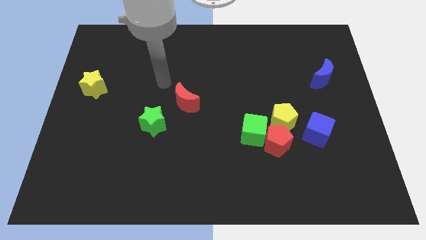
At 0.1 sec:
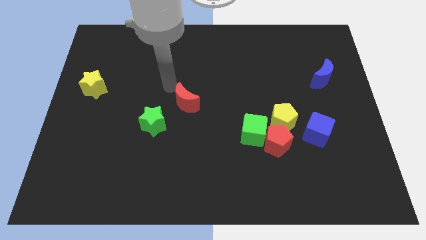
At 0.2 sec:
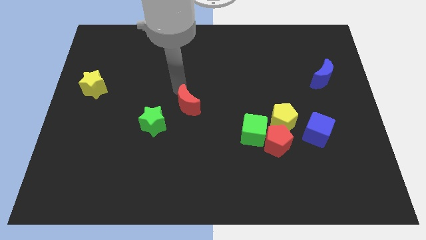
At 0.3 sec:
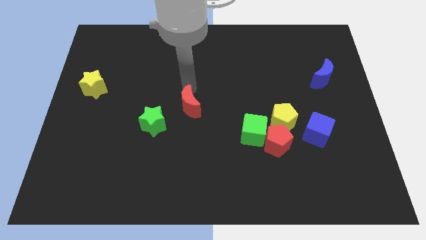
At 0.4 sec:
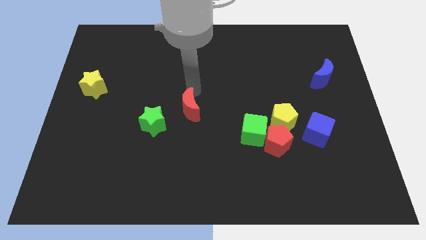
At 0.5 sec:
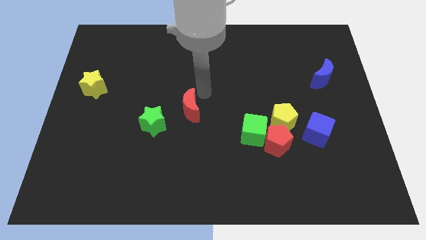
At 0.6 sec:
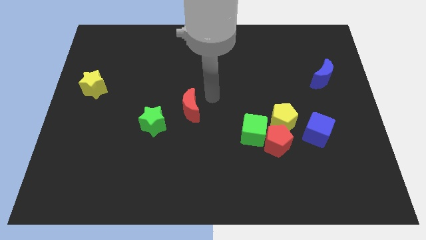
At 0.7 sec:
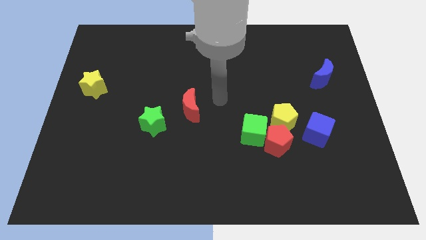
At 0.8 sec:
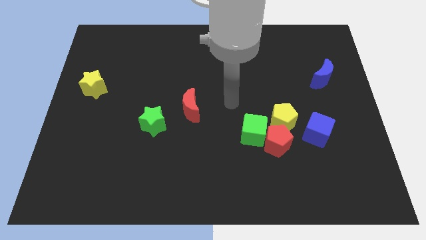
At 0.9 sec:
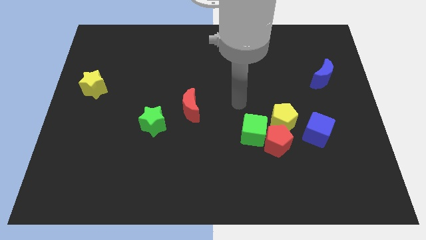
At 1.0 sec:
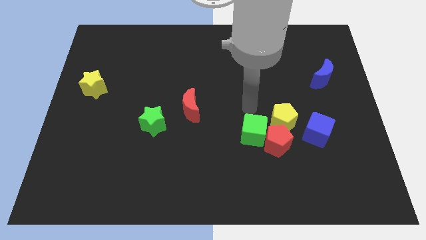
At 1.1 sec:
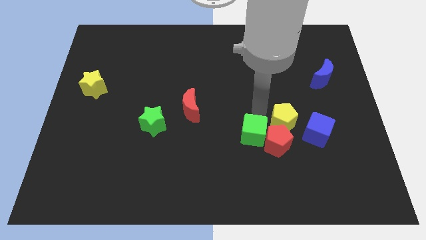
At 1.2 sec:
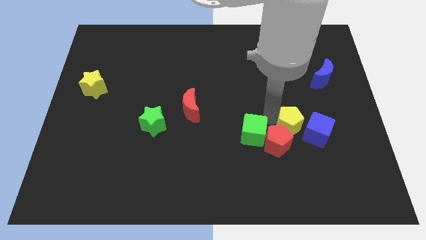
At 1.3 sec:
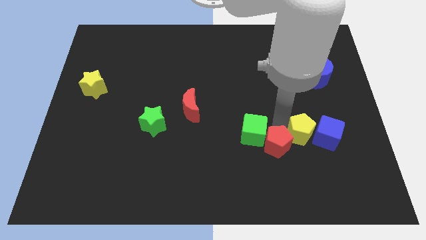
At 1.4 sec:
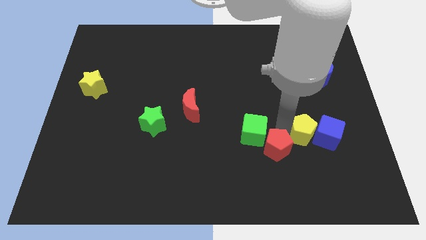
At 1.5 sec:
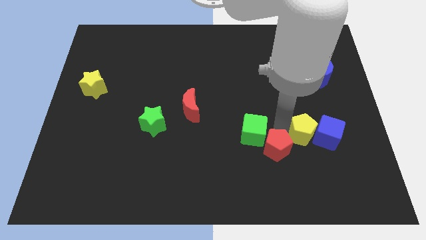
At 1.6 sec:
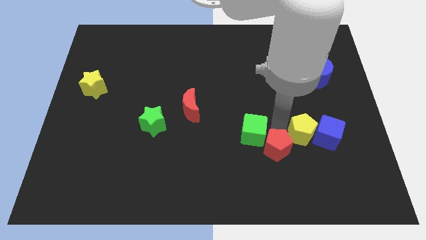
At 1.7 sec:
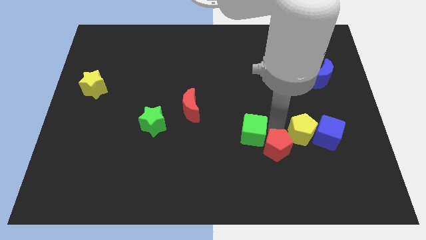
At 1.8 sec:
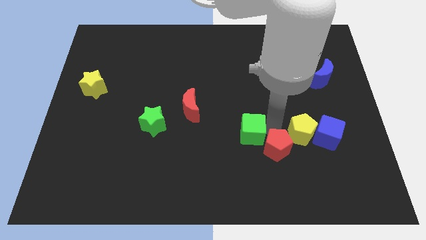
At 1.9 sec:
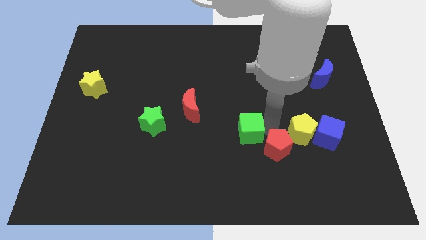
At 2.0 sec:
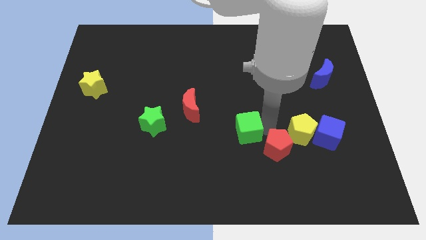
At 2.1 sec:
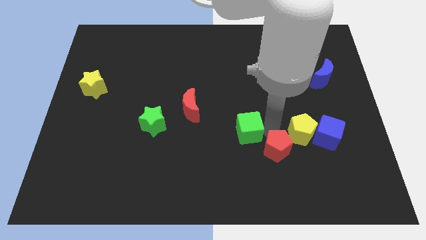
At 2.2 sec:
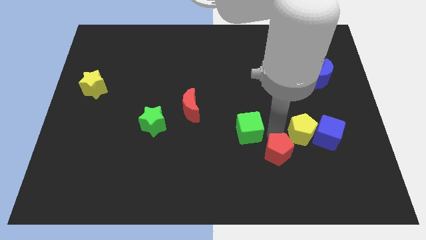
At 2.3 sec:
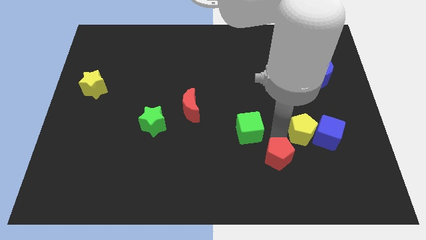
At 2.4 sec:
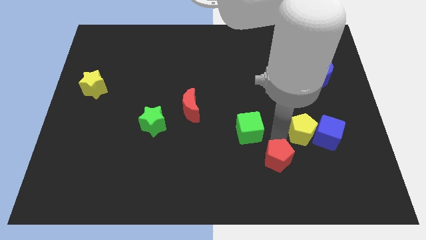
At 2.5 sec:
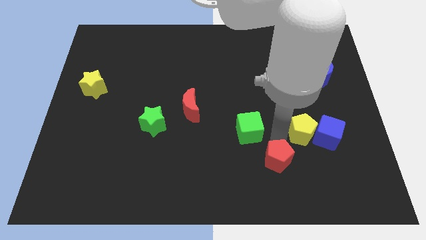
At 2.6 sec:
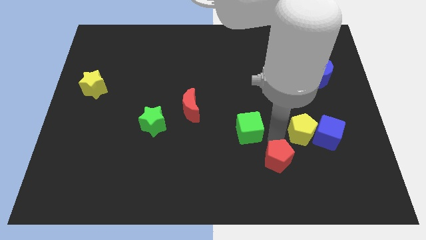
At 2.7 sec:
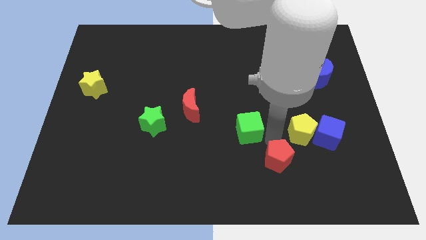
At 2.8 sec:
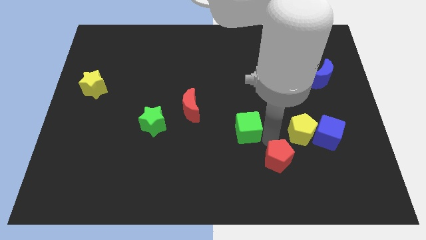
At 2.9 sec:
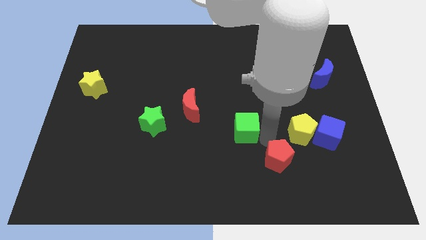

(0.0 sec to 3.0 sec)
pull the green cube apart from the red pentagon and yellow pentagon

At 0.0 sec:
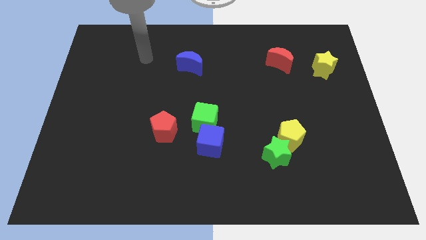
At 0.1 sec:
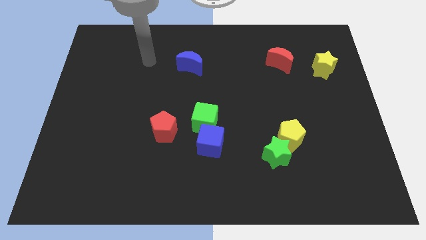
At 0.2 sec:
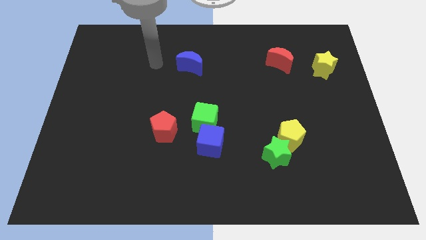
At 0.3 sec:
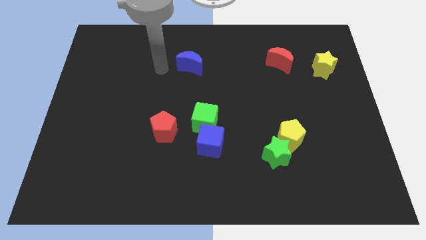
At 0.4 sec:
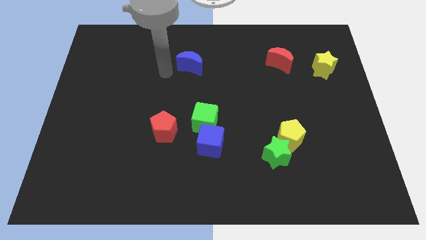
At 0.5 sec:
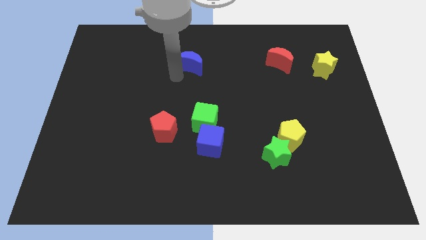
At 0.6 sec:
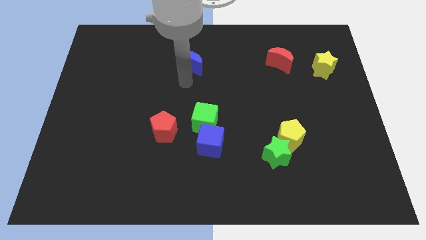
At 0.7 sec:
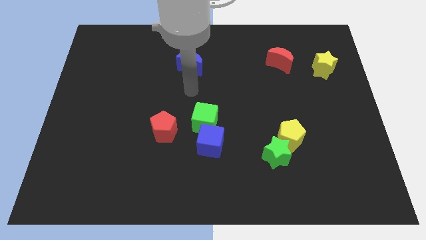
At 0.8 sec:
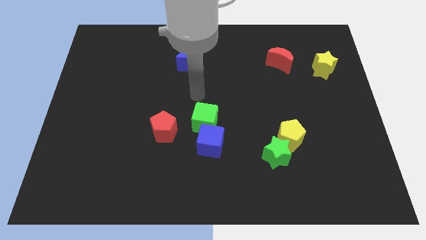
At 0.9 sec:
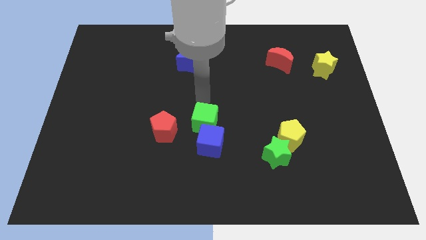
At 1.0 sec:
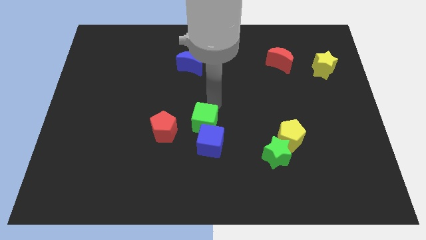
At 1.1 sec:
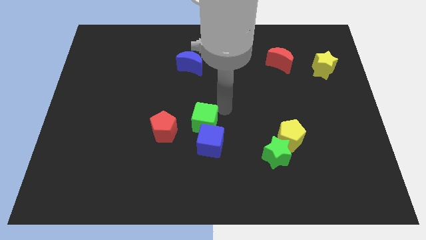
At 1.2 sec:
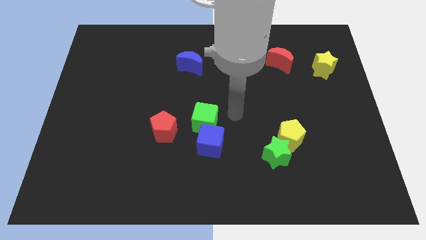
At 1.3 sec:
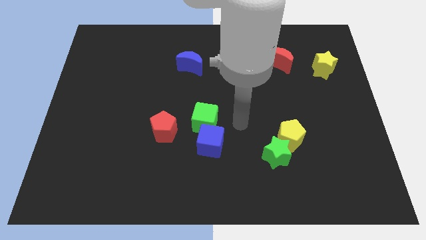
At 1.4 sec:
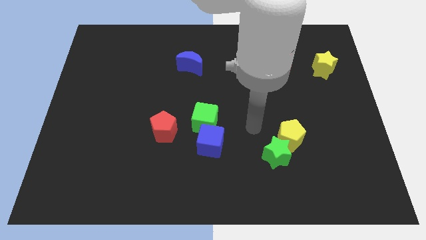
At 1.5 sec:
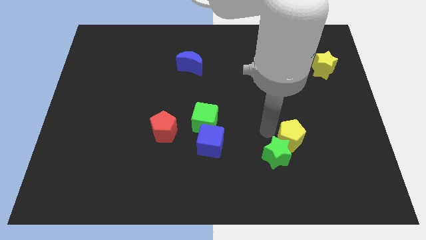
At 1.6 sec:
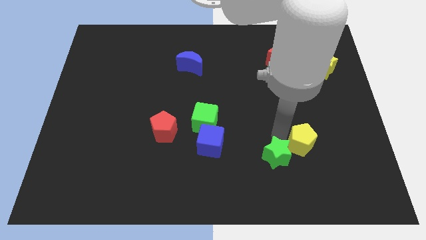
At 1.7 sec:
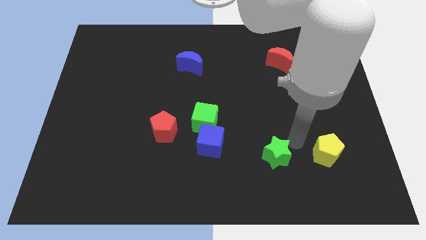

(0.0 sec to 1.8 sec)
move the green star away from the yellow pentagon

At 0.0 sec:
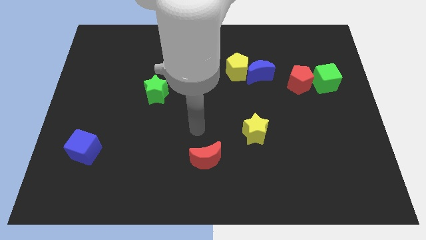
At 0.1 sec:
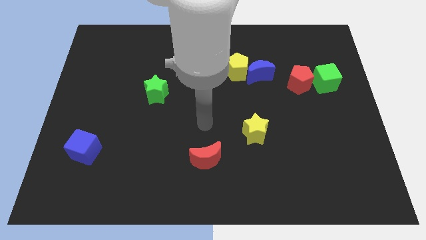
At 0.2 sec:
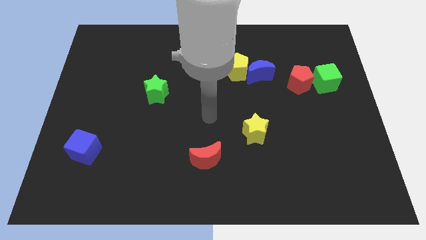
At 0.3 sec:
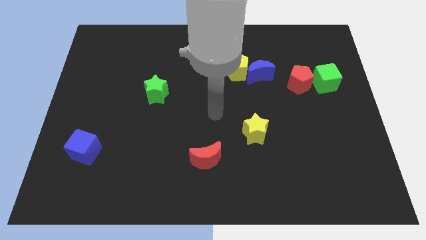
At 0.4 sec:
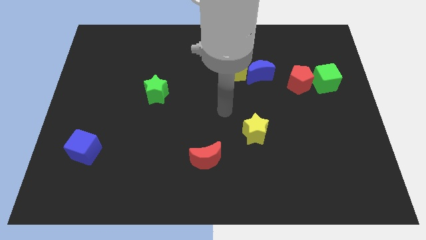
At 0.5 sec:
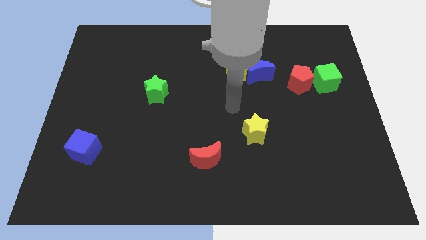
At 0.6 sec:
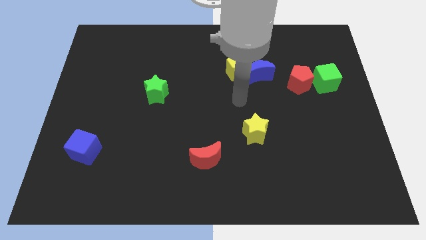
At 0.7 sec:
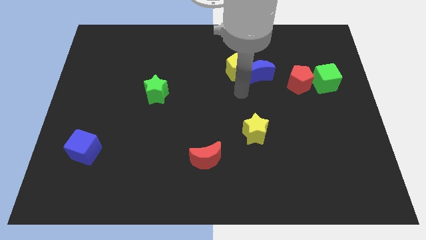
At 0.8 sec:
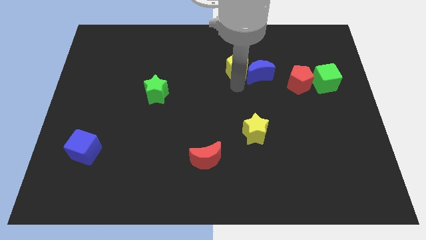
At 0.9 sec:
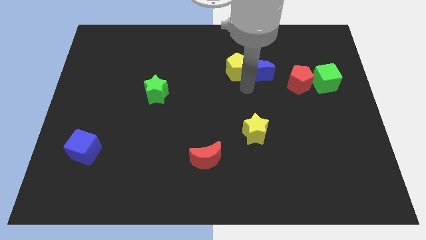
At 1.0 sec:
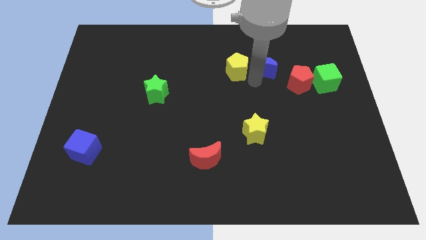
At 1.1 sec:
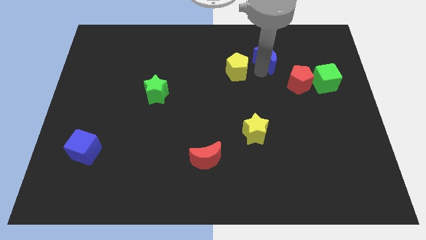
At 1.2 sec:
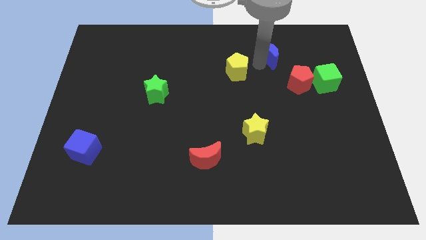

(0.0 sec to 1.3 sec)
separate the yellow pentagon from the blue moon

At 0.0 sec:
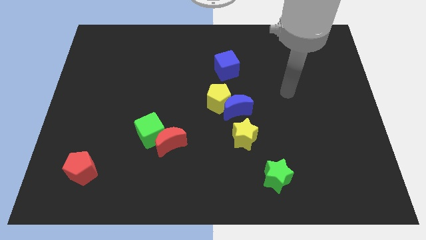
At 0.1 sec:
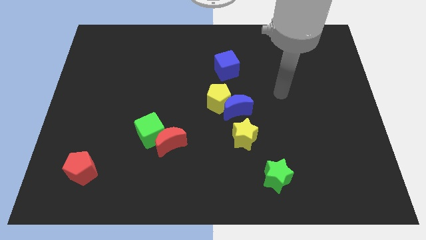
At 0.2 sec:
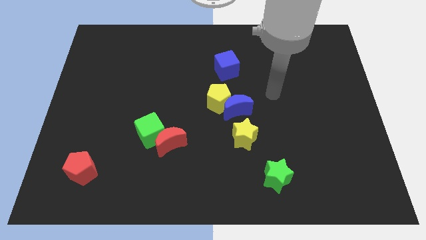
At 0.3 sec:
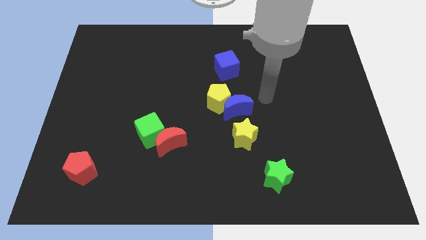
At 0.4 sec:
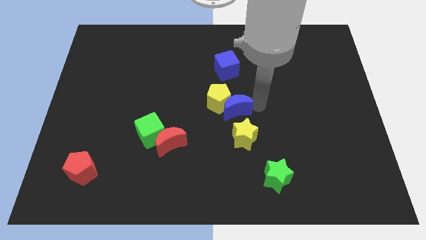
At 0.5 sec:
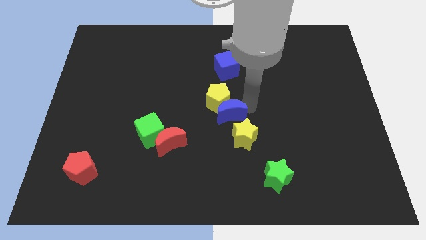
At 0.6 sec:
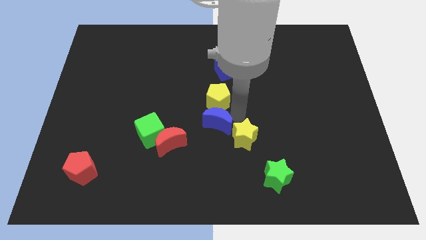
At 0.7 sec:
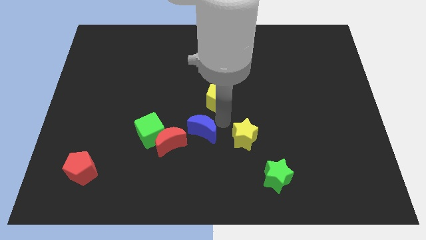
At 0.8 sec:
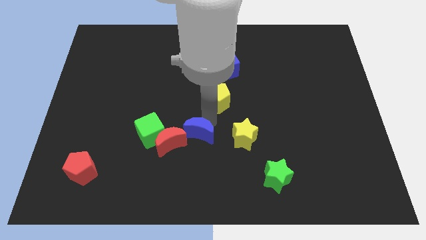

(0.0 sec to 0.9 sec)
move the yellow pentagon away from the blue moon

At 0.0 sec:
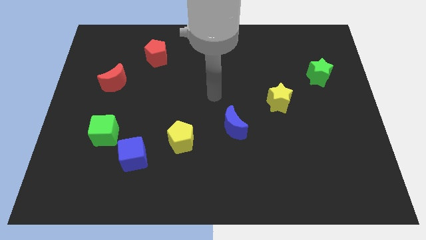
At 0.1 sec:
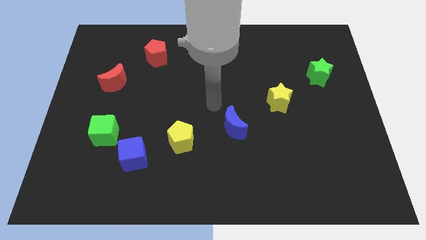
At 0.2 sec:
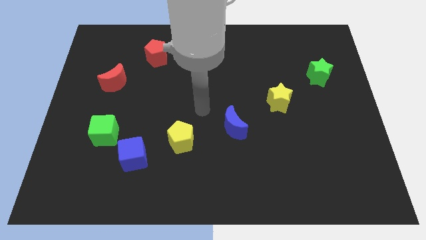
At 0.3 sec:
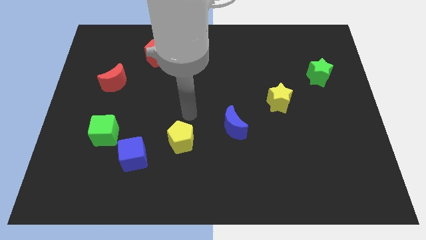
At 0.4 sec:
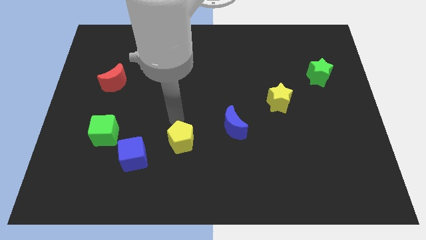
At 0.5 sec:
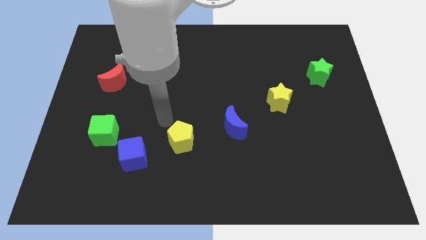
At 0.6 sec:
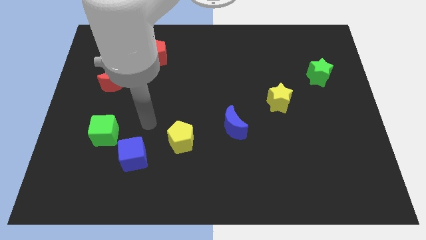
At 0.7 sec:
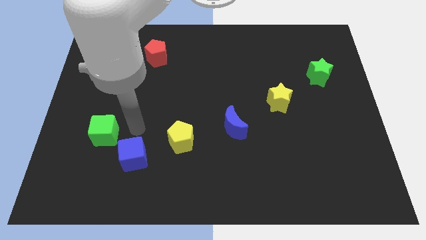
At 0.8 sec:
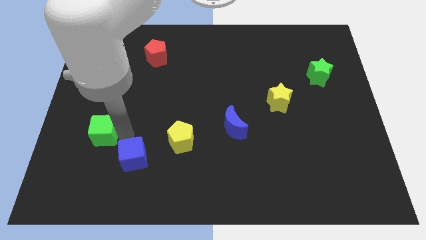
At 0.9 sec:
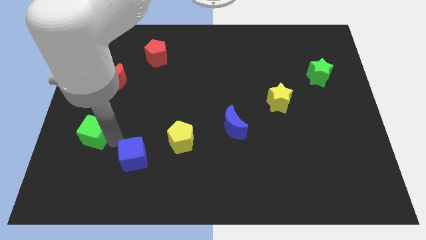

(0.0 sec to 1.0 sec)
pull the blue cube apart from the green cube

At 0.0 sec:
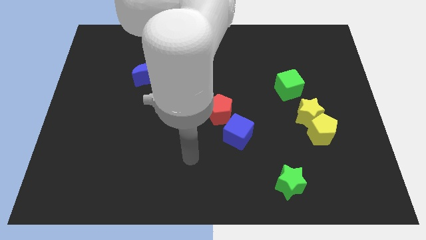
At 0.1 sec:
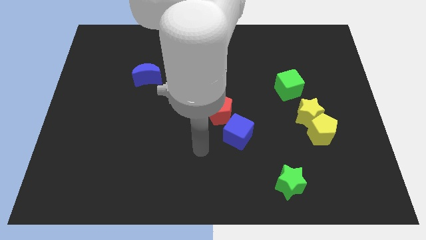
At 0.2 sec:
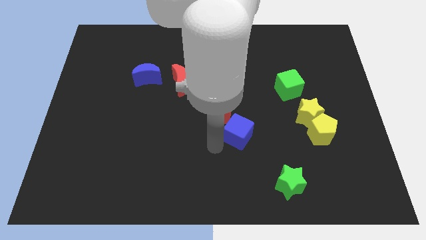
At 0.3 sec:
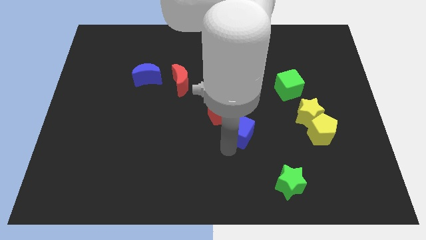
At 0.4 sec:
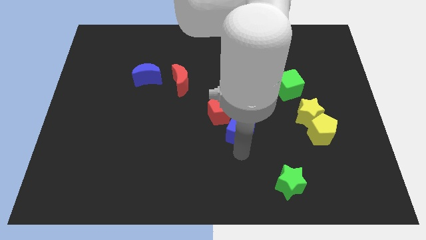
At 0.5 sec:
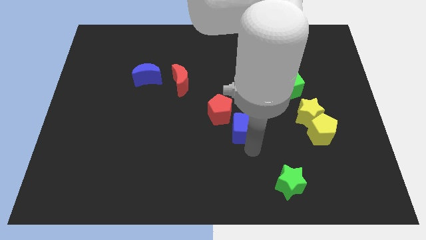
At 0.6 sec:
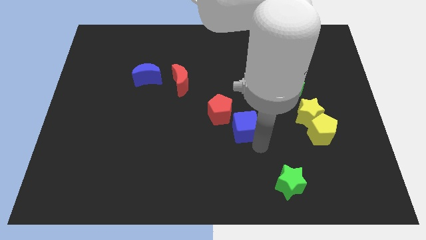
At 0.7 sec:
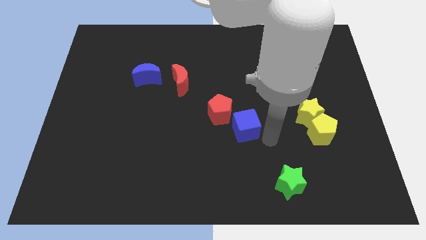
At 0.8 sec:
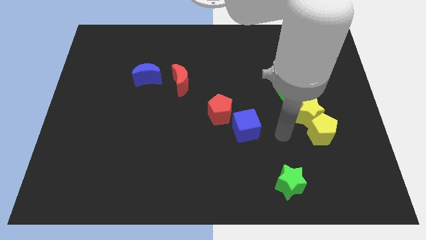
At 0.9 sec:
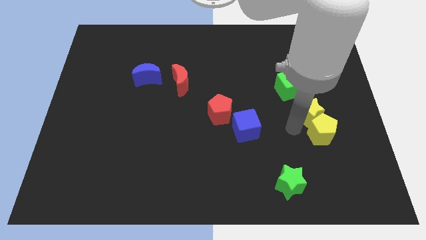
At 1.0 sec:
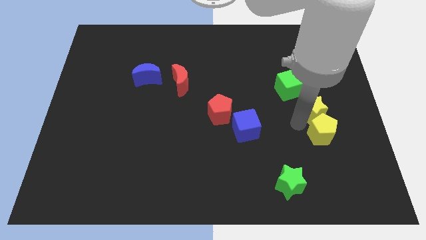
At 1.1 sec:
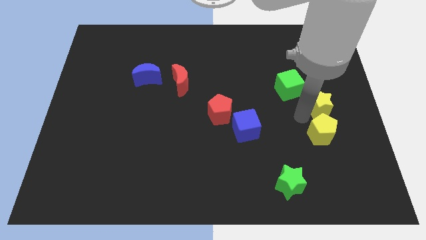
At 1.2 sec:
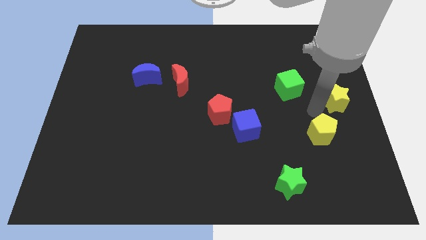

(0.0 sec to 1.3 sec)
move the yellow pentagon away from the yellow star
